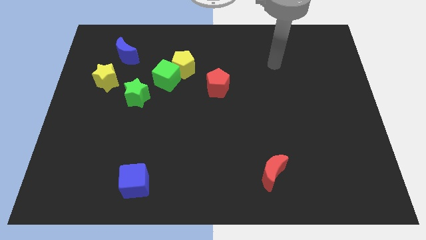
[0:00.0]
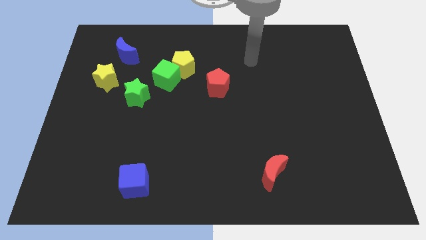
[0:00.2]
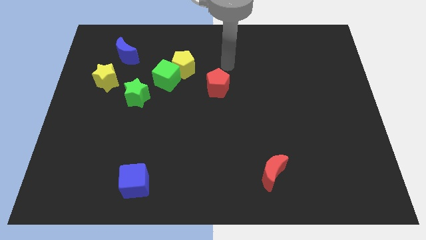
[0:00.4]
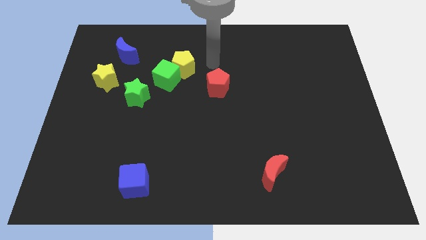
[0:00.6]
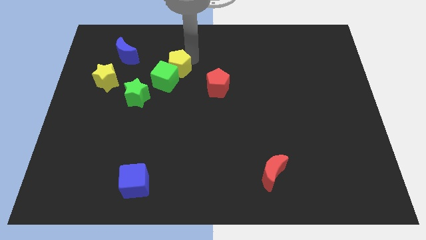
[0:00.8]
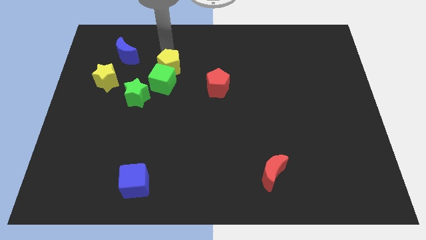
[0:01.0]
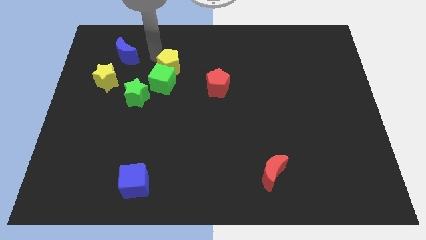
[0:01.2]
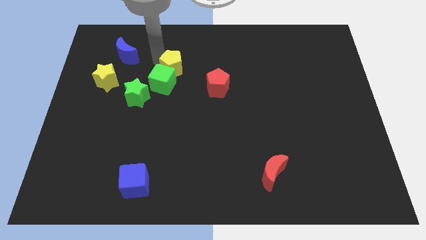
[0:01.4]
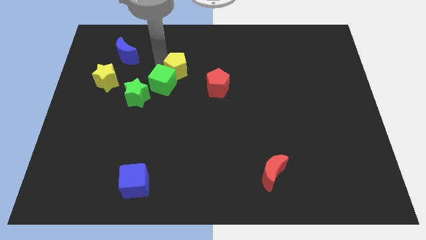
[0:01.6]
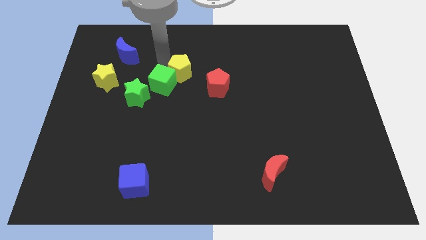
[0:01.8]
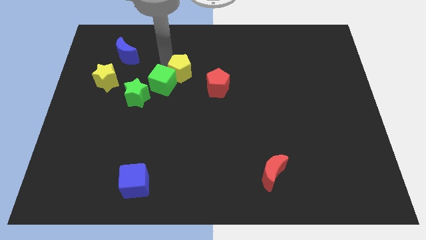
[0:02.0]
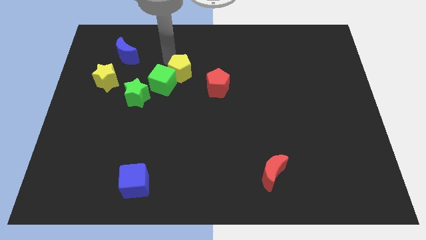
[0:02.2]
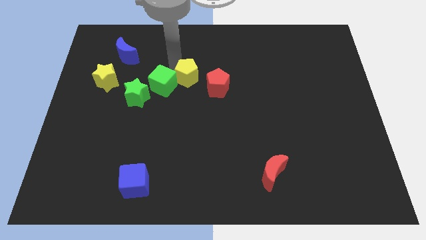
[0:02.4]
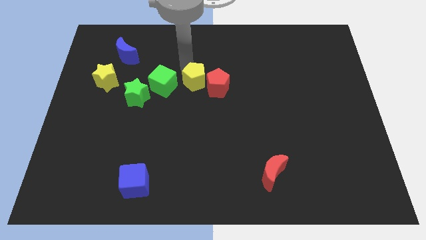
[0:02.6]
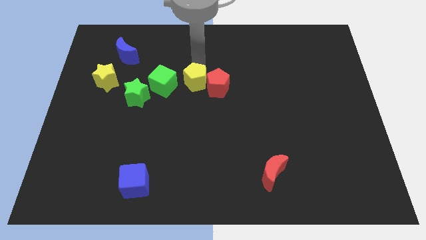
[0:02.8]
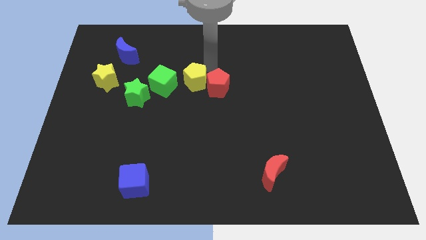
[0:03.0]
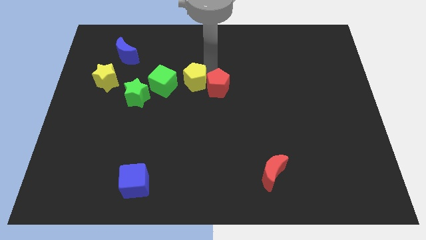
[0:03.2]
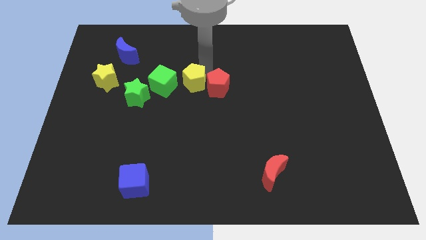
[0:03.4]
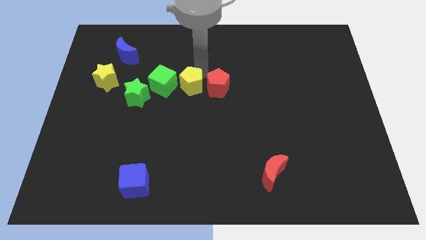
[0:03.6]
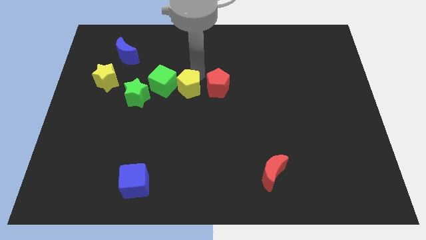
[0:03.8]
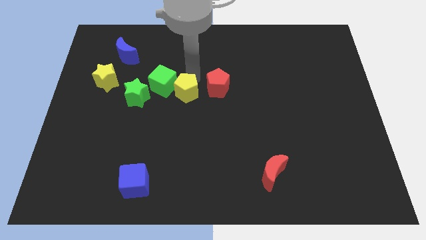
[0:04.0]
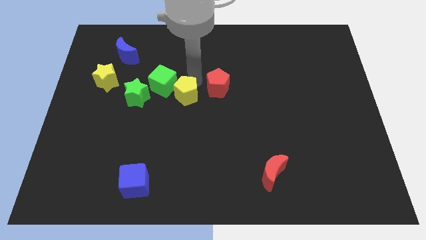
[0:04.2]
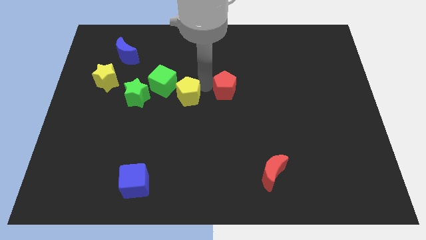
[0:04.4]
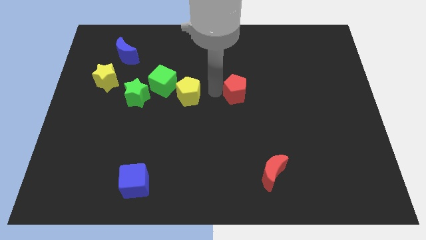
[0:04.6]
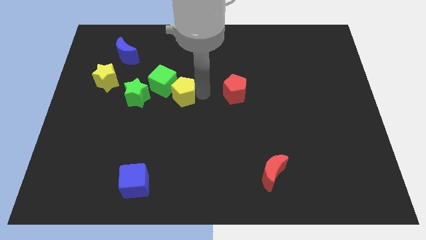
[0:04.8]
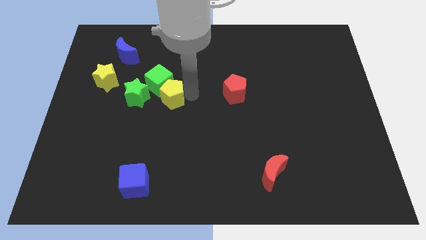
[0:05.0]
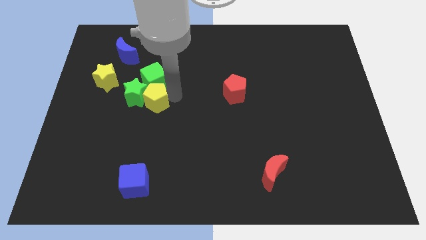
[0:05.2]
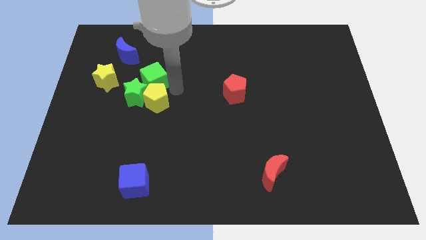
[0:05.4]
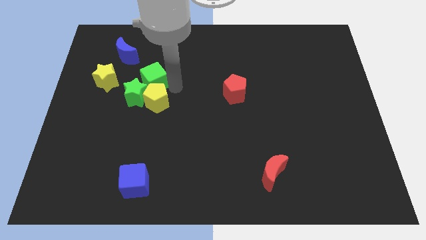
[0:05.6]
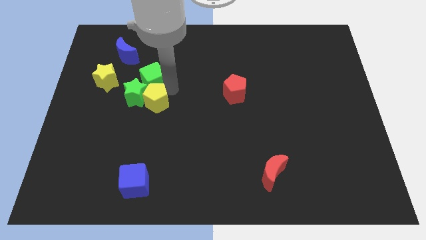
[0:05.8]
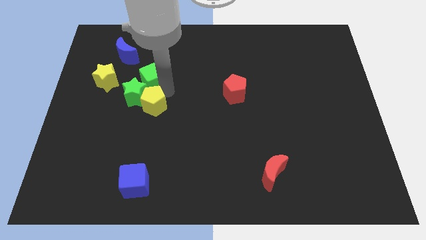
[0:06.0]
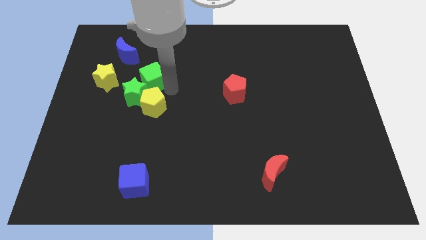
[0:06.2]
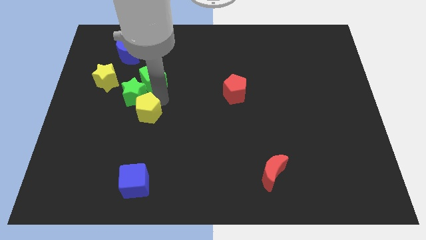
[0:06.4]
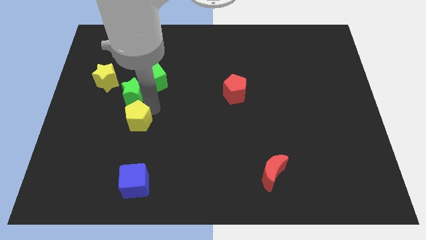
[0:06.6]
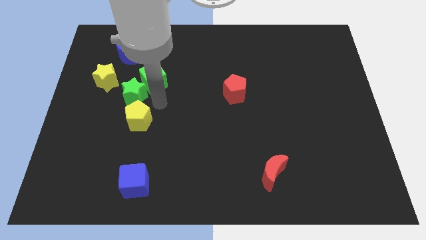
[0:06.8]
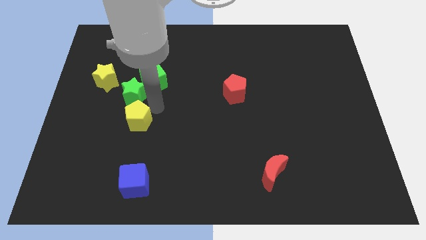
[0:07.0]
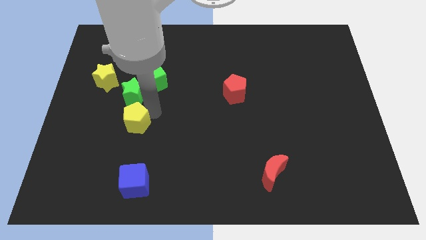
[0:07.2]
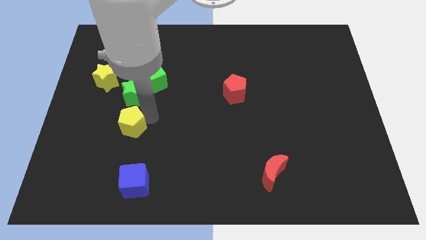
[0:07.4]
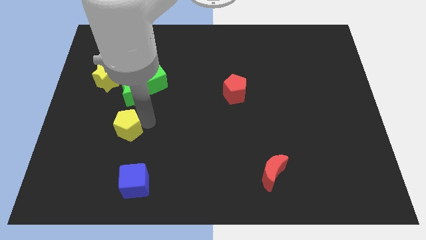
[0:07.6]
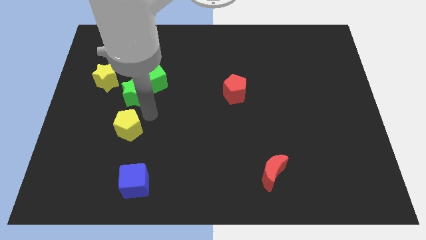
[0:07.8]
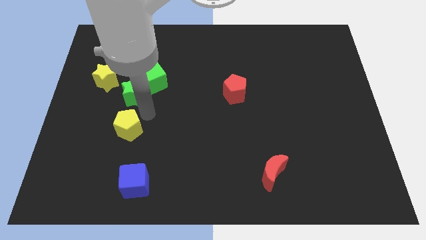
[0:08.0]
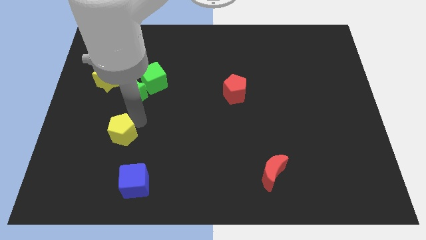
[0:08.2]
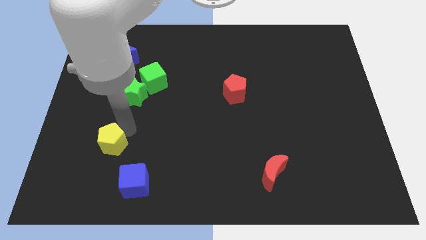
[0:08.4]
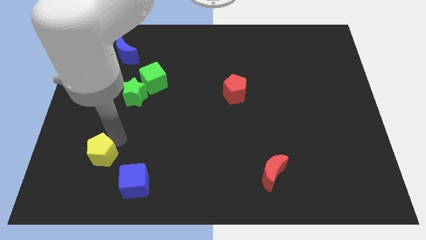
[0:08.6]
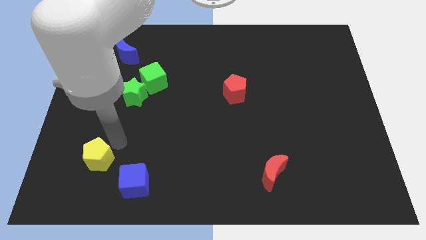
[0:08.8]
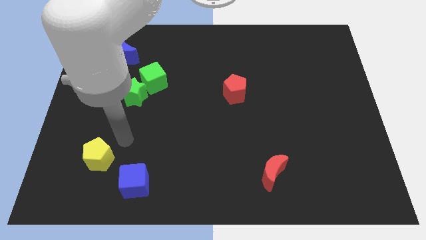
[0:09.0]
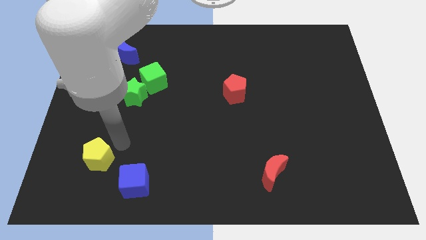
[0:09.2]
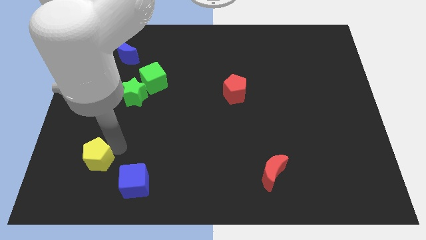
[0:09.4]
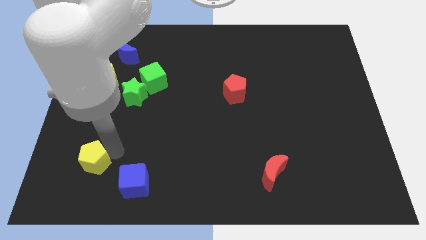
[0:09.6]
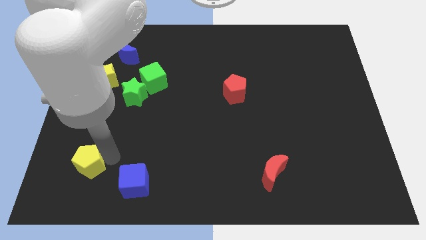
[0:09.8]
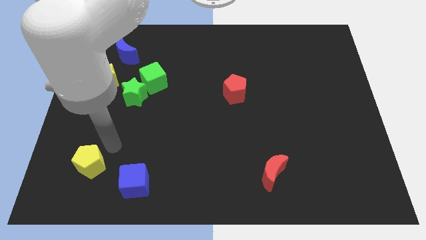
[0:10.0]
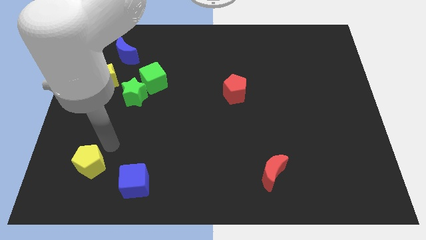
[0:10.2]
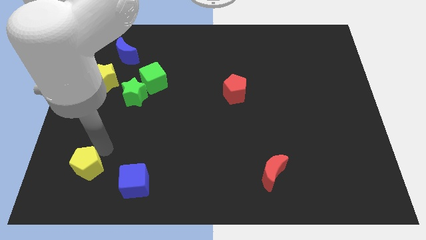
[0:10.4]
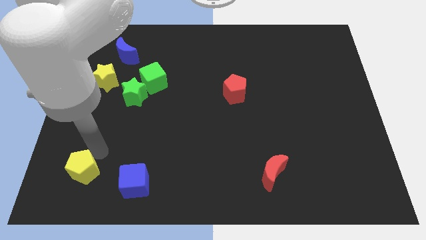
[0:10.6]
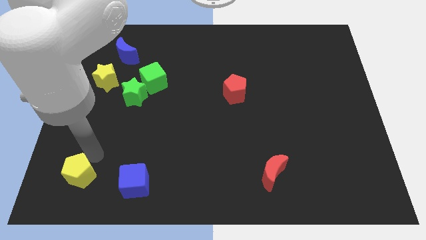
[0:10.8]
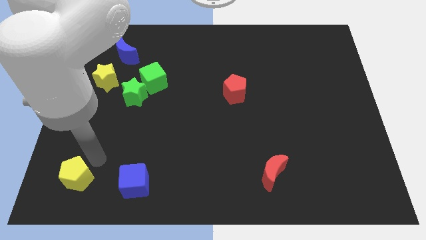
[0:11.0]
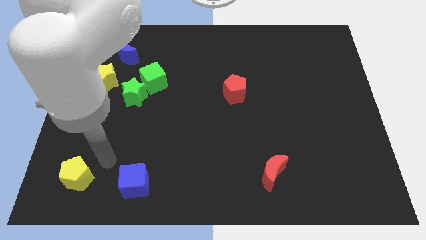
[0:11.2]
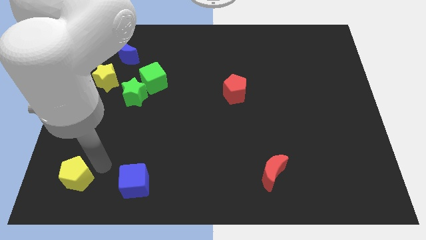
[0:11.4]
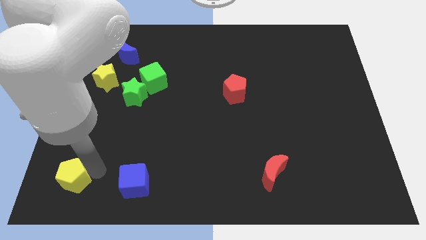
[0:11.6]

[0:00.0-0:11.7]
move the yellow pentagon to the bottom left of the board
